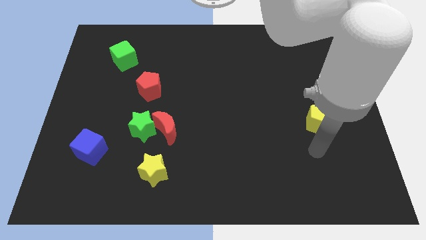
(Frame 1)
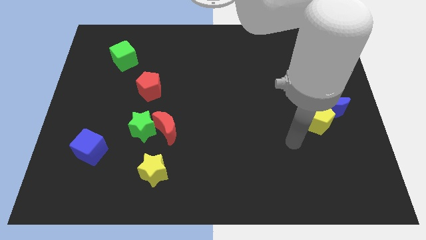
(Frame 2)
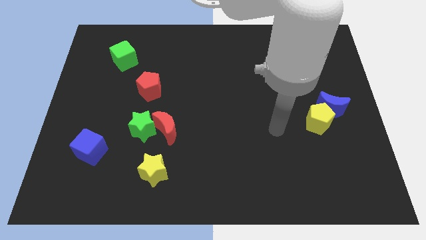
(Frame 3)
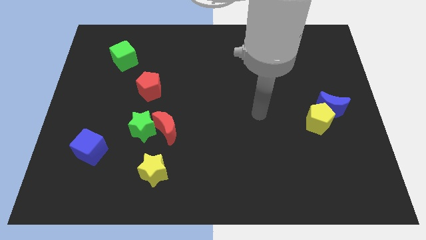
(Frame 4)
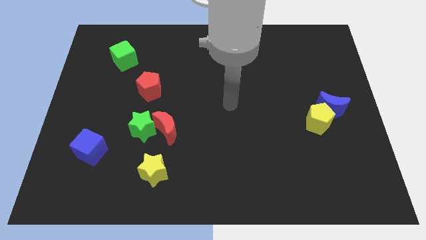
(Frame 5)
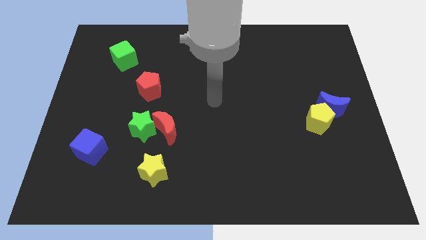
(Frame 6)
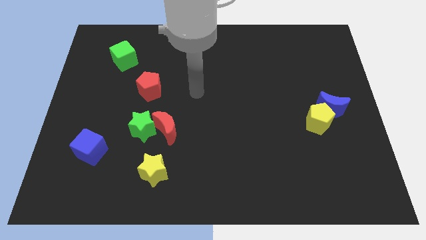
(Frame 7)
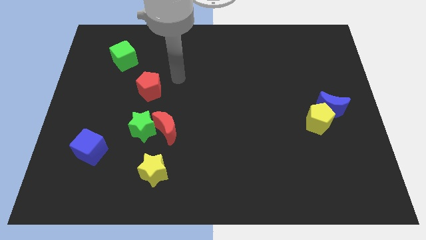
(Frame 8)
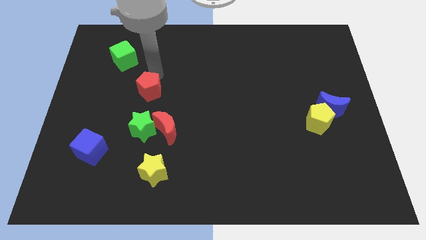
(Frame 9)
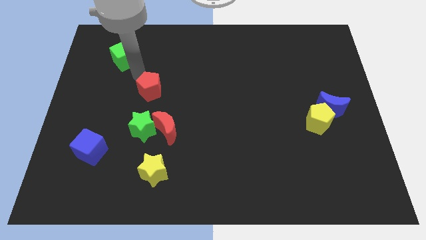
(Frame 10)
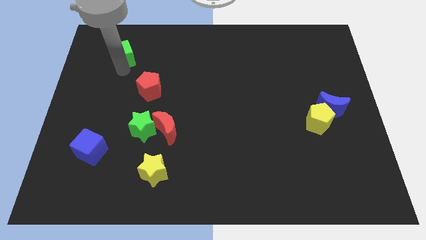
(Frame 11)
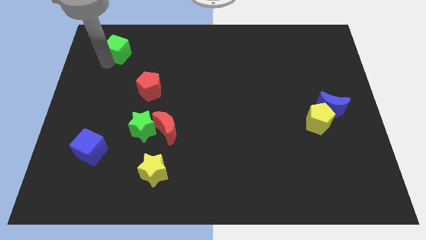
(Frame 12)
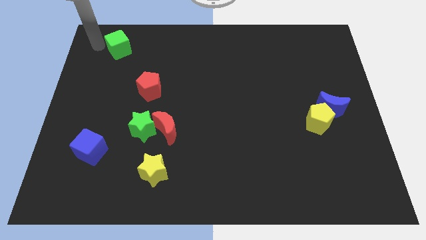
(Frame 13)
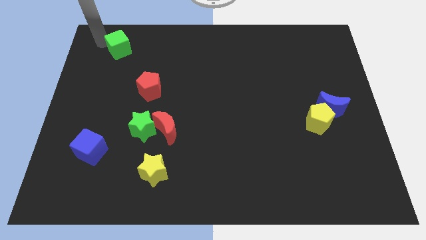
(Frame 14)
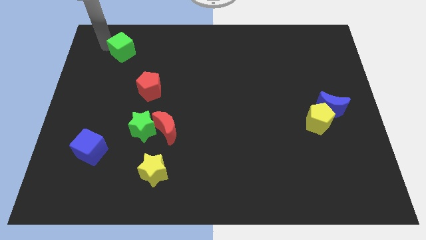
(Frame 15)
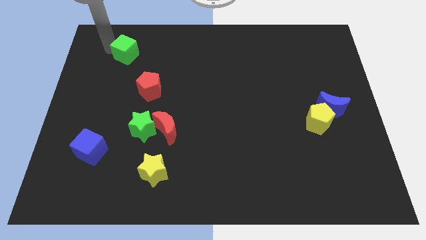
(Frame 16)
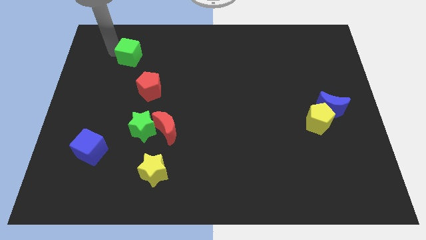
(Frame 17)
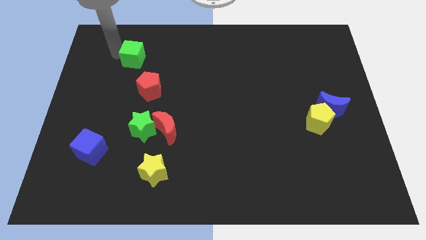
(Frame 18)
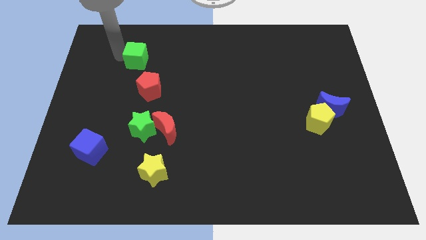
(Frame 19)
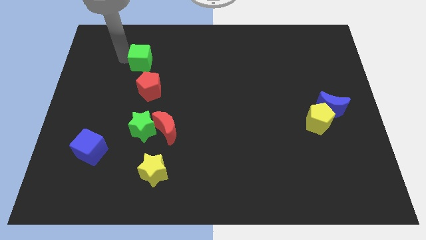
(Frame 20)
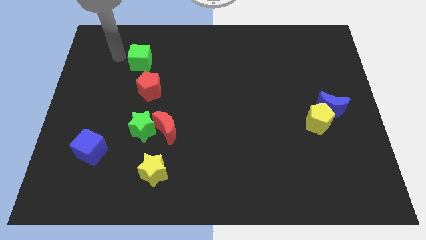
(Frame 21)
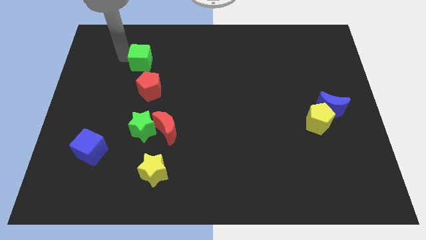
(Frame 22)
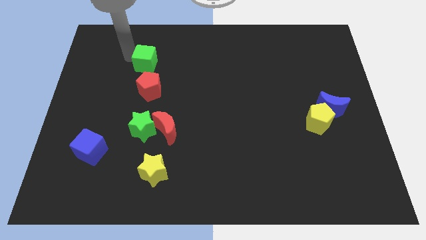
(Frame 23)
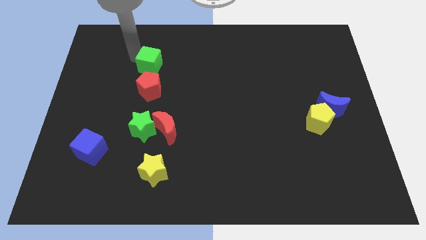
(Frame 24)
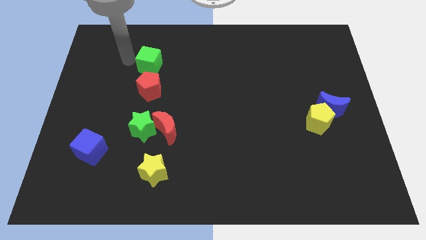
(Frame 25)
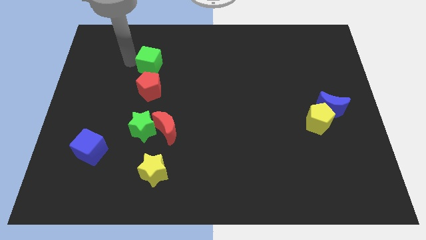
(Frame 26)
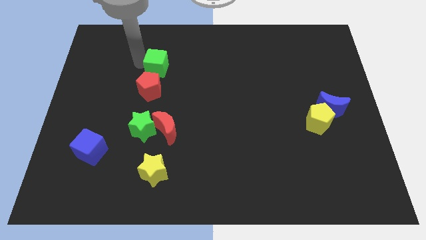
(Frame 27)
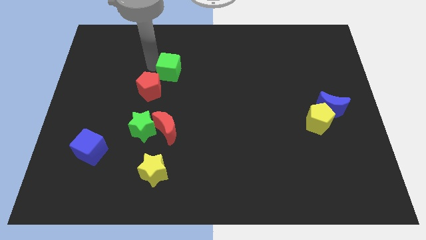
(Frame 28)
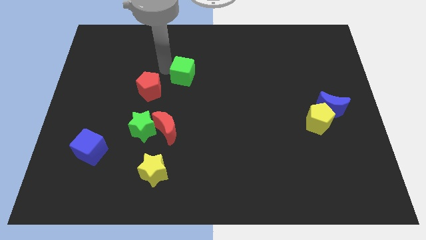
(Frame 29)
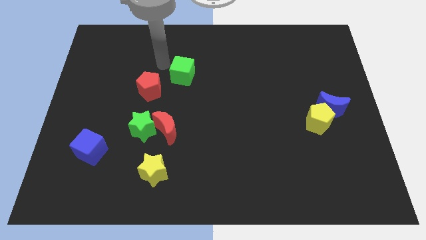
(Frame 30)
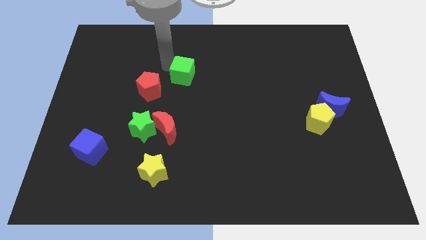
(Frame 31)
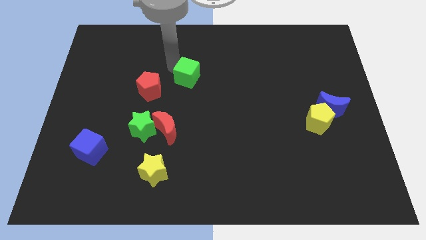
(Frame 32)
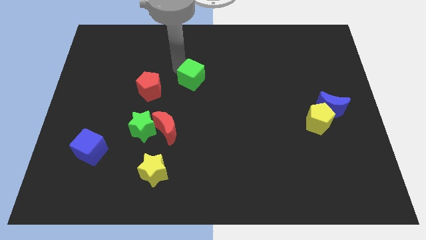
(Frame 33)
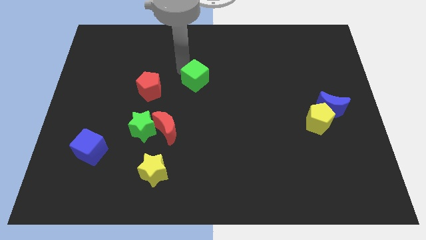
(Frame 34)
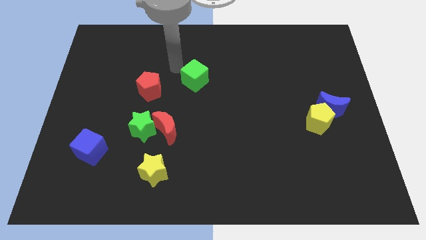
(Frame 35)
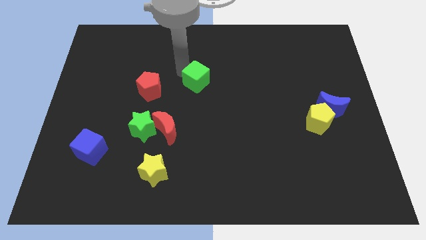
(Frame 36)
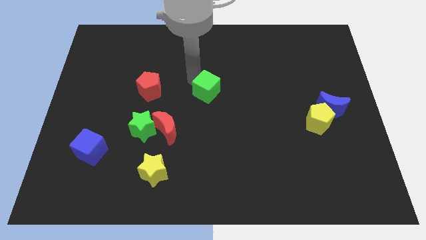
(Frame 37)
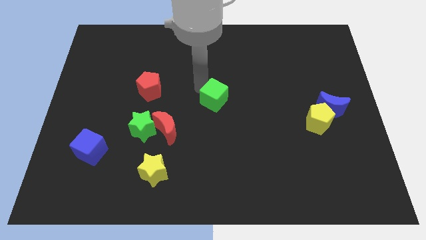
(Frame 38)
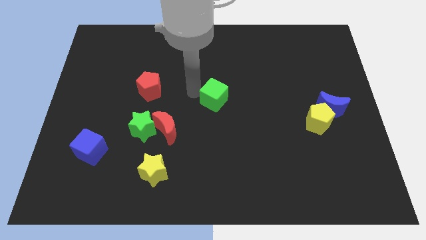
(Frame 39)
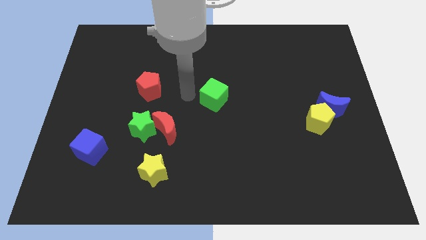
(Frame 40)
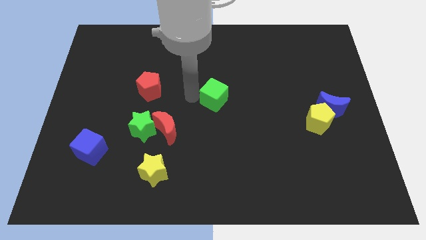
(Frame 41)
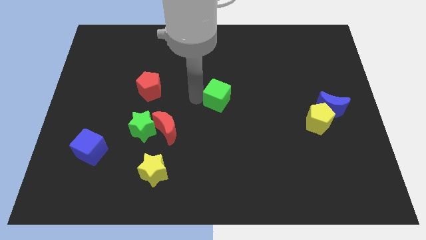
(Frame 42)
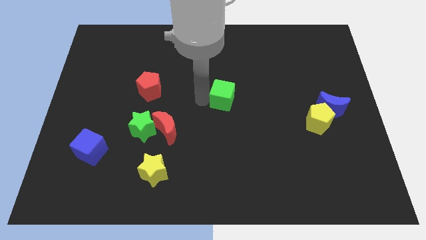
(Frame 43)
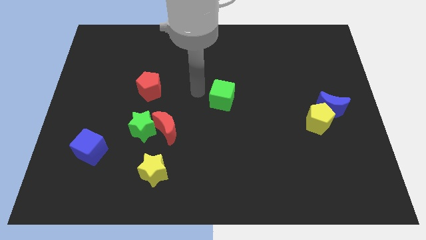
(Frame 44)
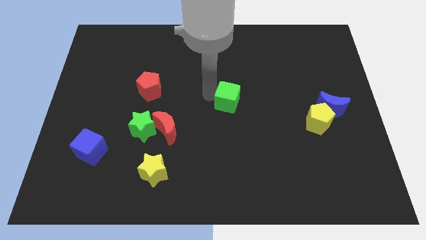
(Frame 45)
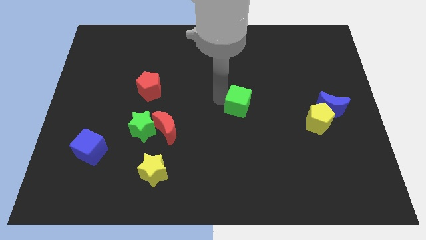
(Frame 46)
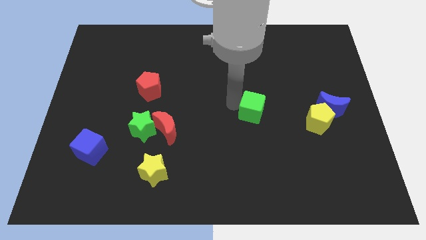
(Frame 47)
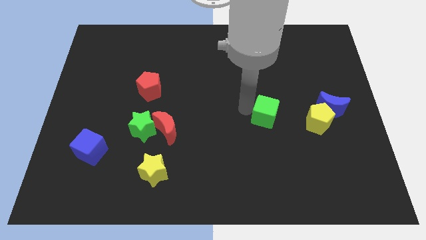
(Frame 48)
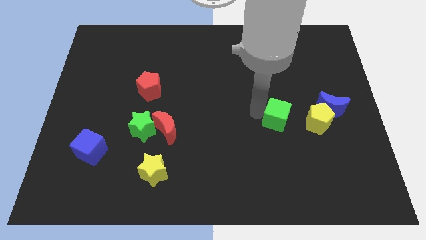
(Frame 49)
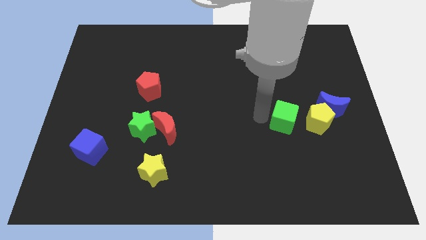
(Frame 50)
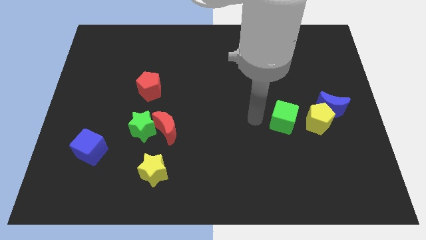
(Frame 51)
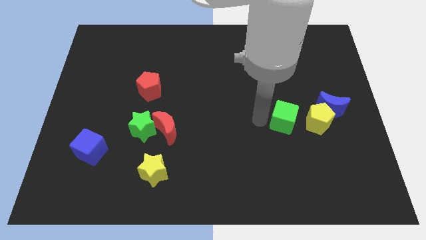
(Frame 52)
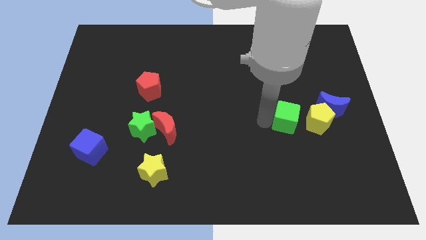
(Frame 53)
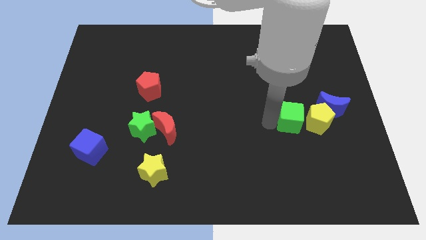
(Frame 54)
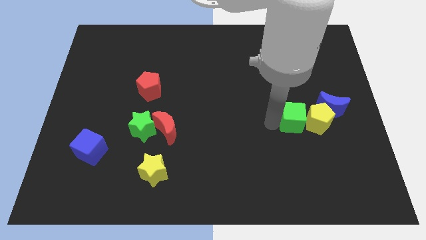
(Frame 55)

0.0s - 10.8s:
push the green cube next to the yellow pentagon

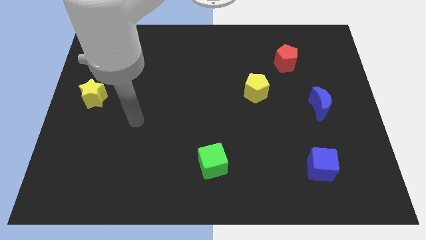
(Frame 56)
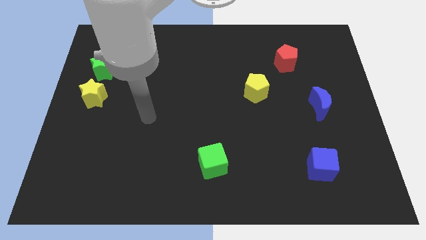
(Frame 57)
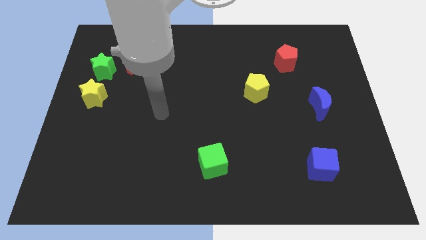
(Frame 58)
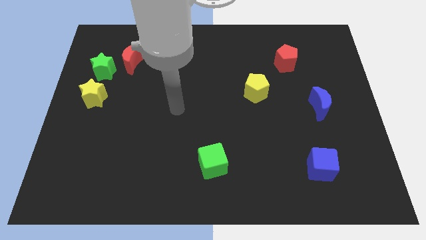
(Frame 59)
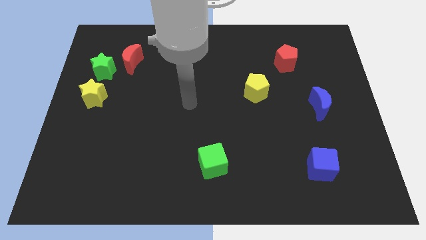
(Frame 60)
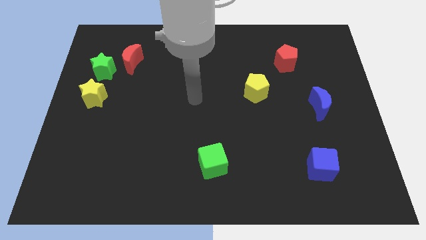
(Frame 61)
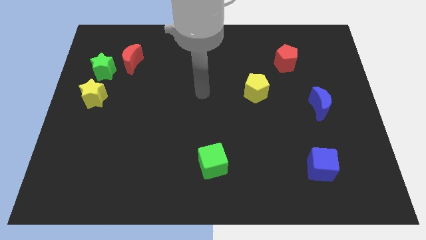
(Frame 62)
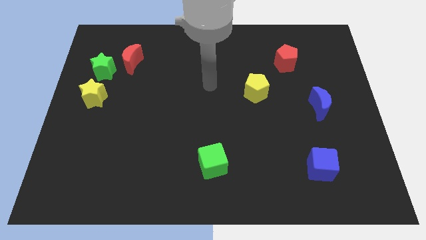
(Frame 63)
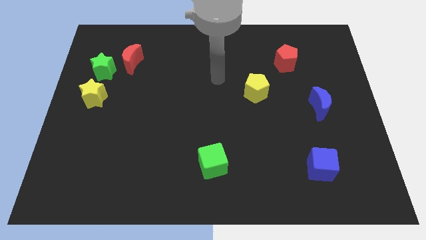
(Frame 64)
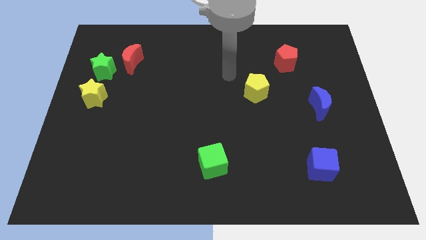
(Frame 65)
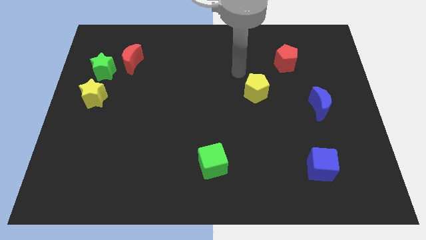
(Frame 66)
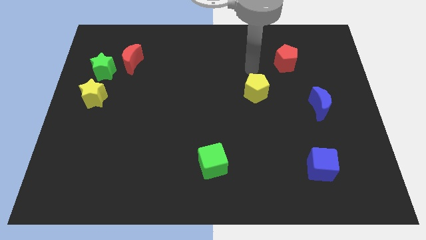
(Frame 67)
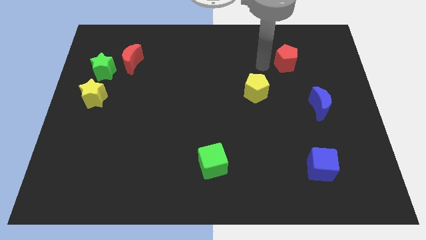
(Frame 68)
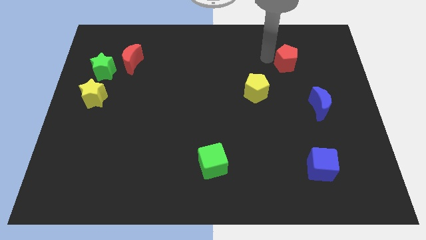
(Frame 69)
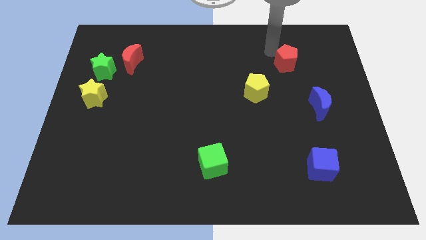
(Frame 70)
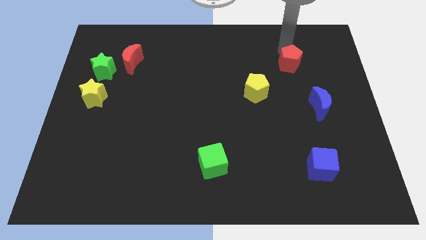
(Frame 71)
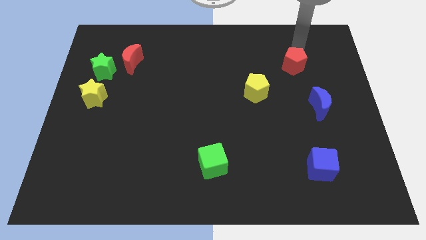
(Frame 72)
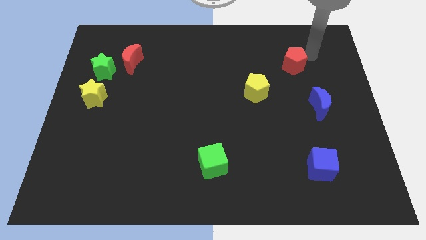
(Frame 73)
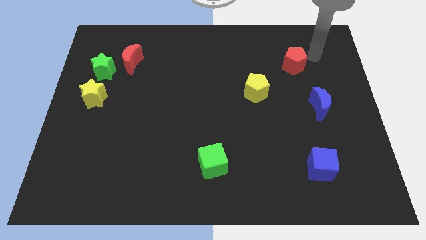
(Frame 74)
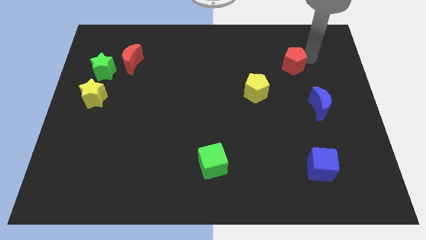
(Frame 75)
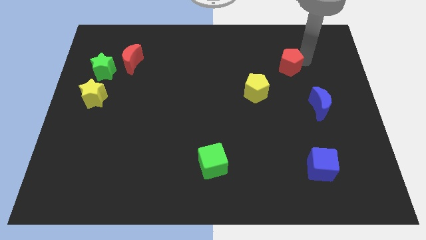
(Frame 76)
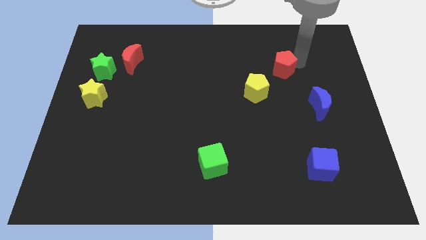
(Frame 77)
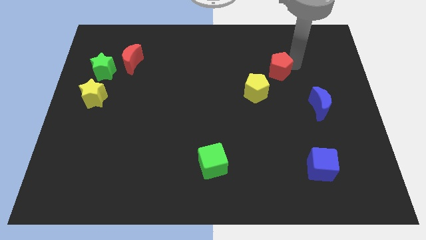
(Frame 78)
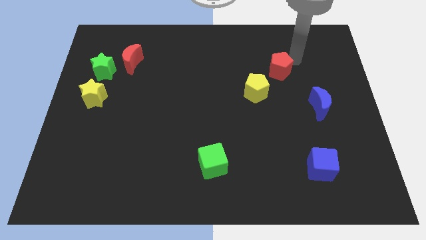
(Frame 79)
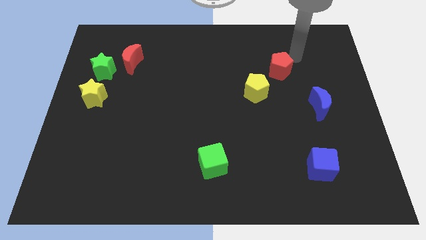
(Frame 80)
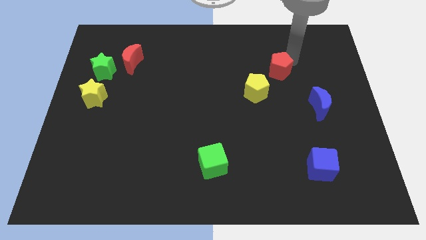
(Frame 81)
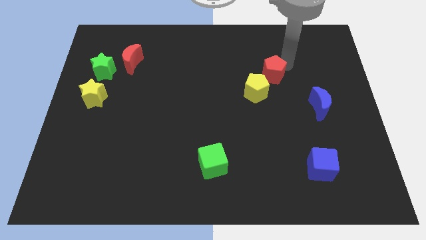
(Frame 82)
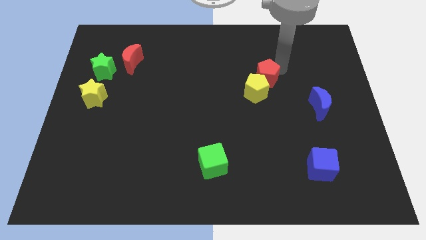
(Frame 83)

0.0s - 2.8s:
put the red pentagon to the yellow pentagon
